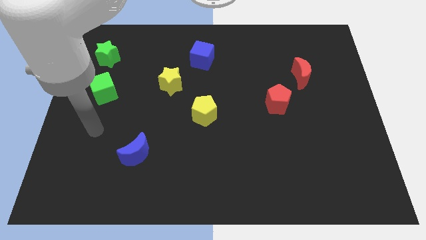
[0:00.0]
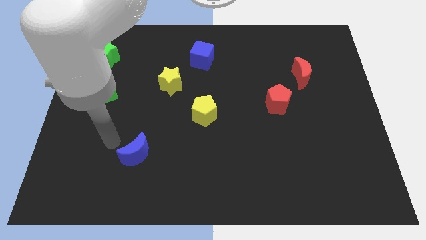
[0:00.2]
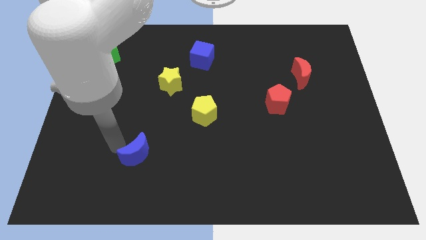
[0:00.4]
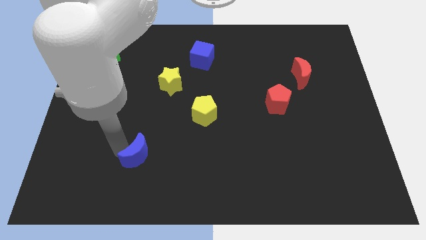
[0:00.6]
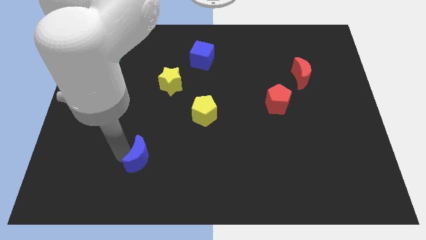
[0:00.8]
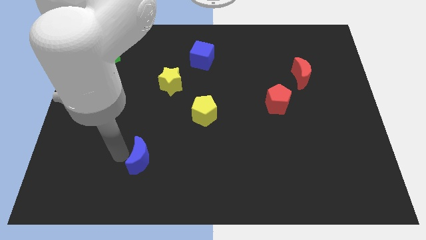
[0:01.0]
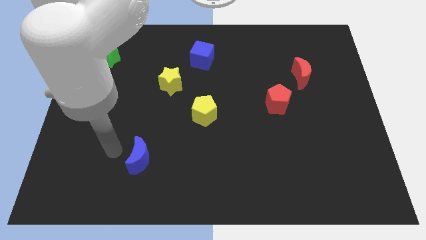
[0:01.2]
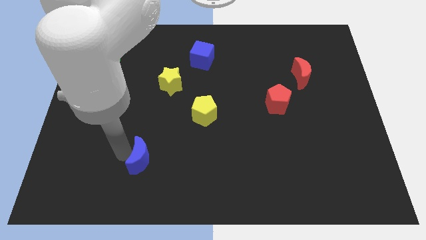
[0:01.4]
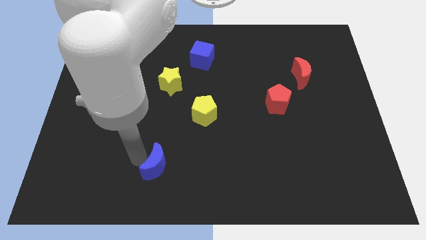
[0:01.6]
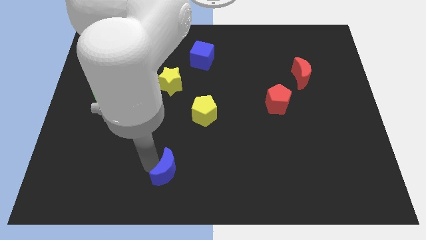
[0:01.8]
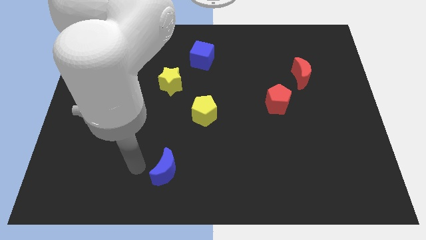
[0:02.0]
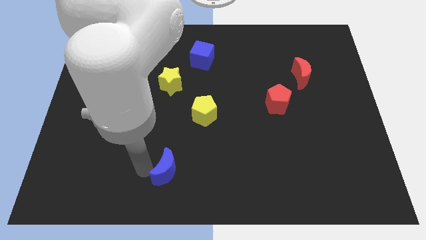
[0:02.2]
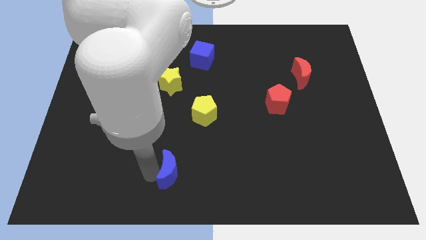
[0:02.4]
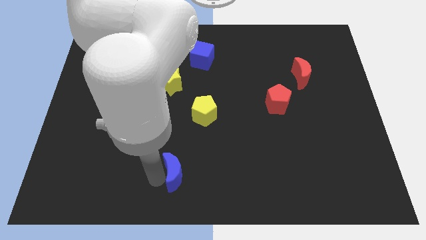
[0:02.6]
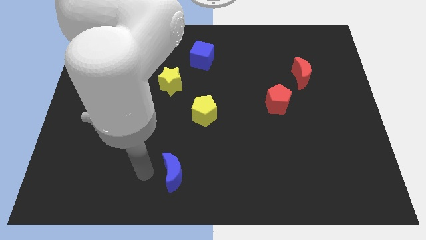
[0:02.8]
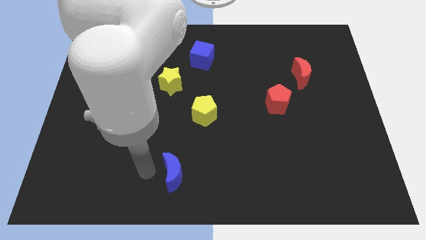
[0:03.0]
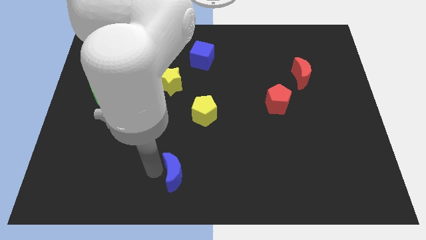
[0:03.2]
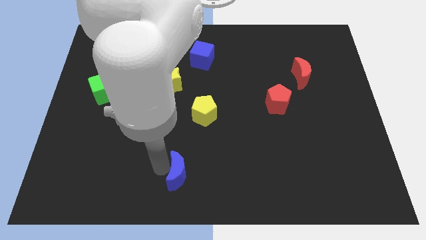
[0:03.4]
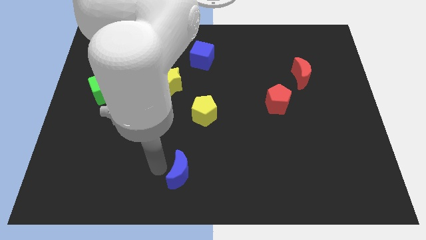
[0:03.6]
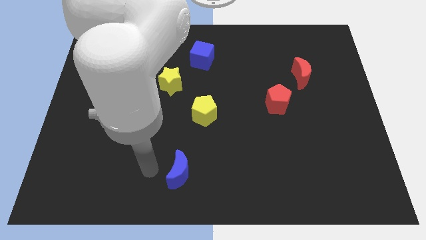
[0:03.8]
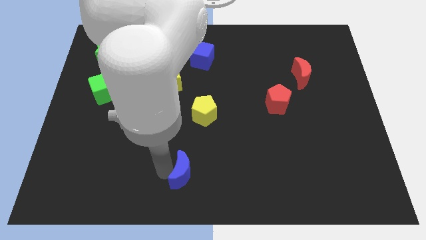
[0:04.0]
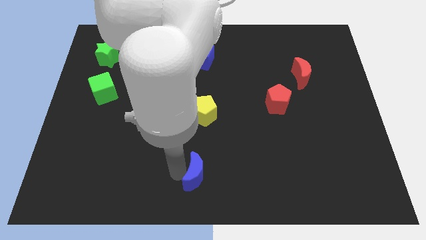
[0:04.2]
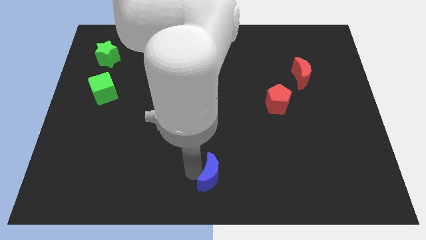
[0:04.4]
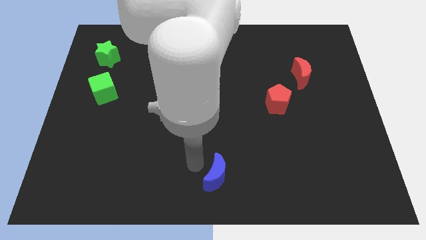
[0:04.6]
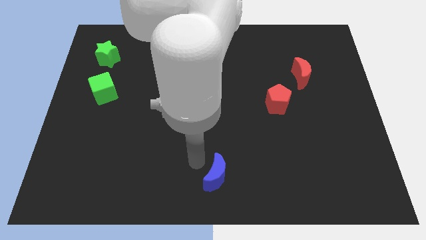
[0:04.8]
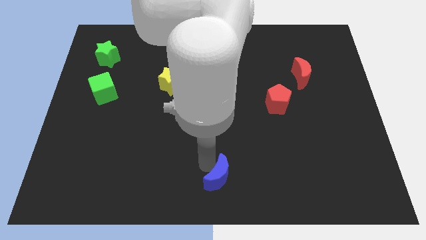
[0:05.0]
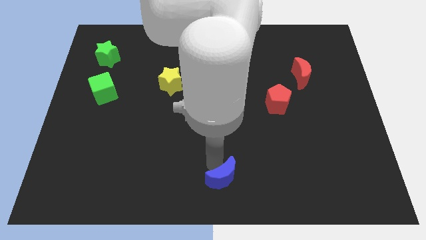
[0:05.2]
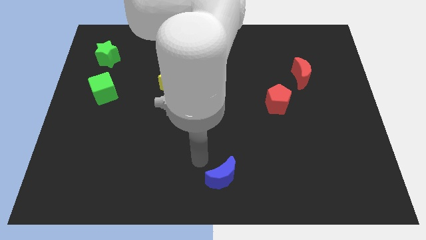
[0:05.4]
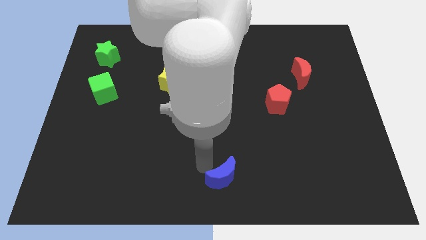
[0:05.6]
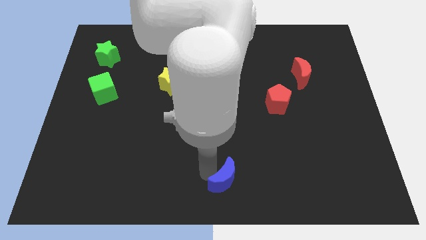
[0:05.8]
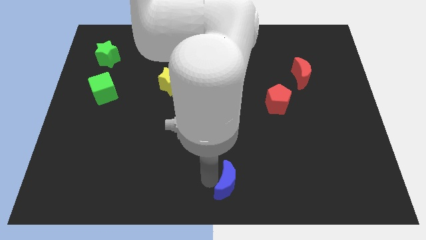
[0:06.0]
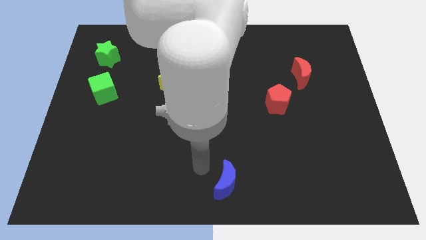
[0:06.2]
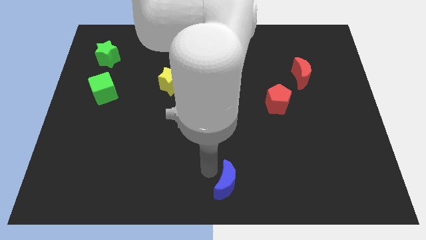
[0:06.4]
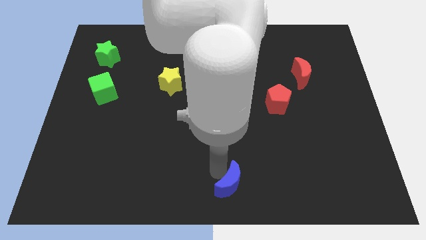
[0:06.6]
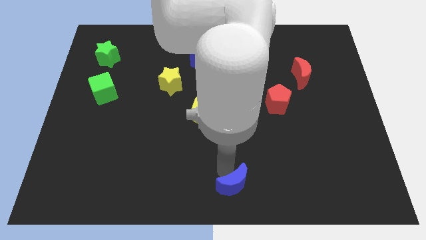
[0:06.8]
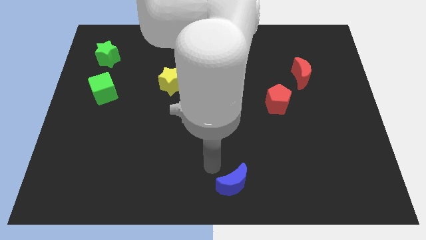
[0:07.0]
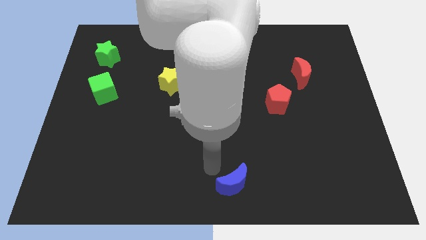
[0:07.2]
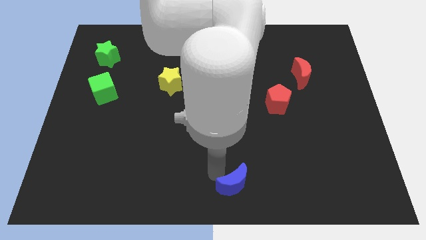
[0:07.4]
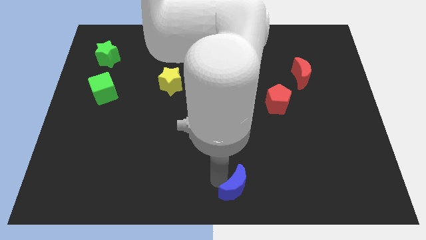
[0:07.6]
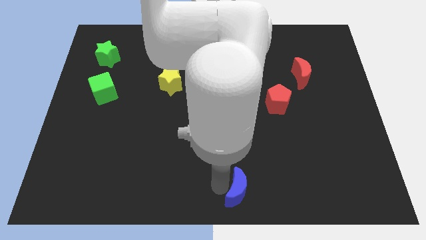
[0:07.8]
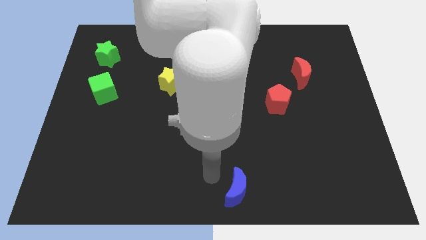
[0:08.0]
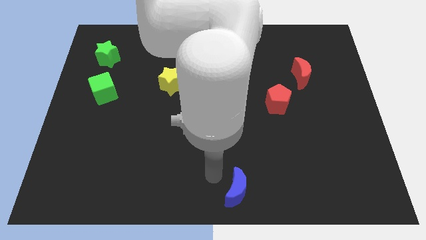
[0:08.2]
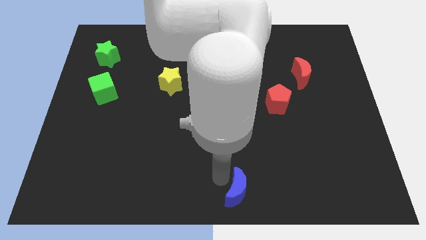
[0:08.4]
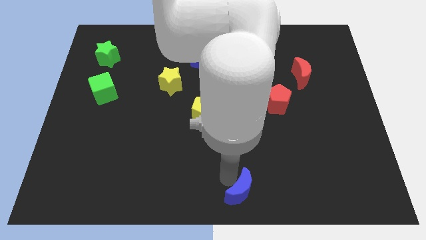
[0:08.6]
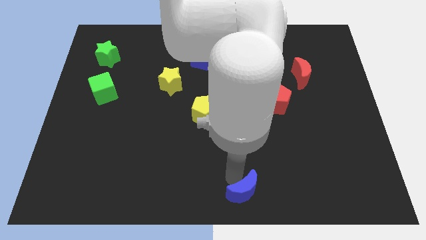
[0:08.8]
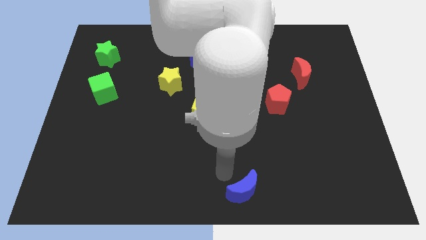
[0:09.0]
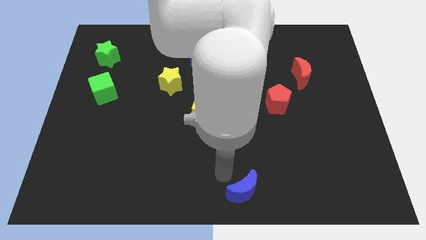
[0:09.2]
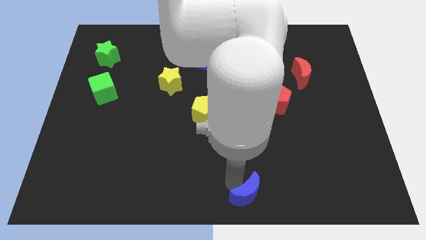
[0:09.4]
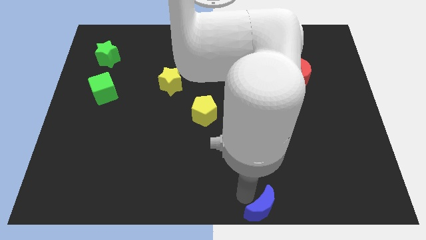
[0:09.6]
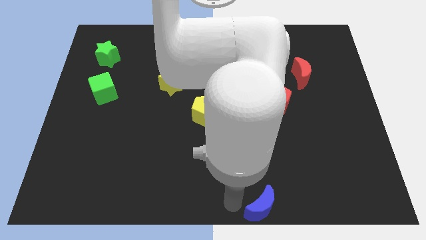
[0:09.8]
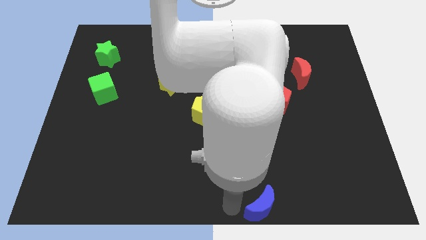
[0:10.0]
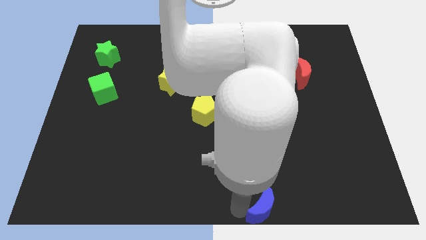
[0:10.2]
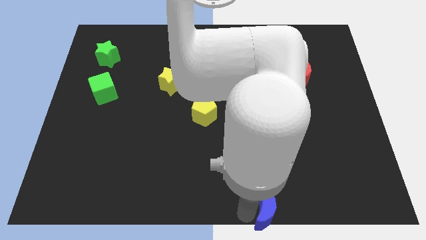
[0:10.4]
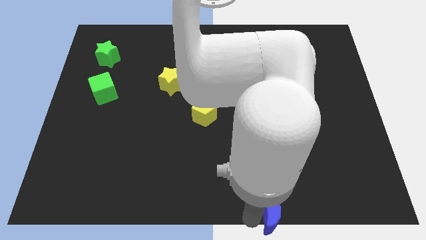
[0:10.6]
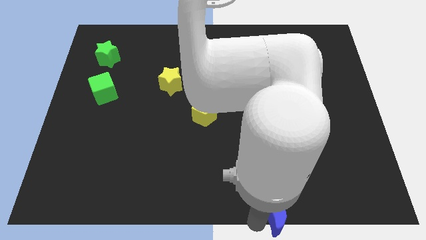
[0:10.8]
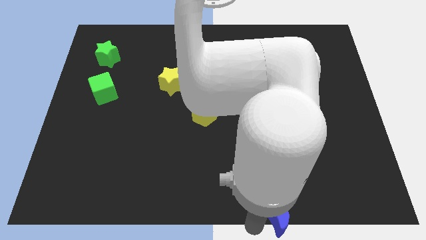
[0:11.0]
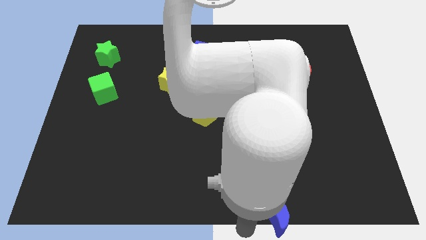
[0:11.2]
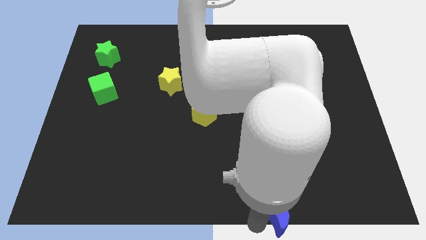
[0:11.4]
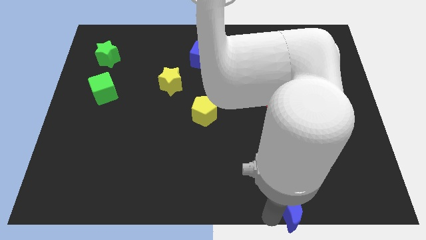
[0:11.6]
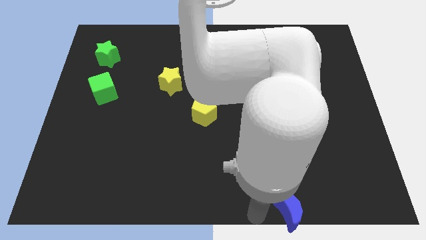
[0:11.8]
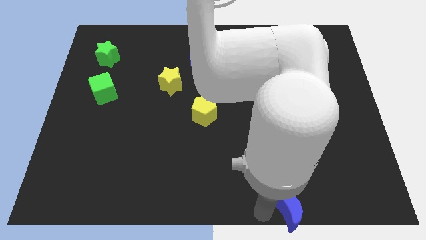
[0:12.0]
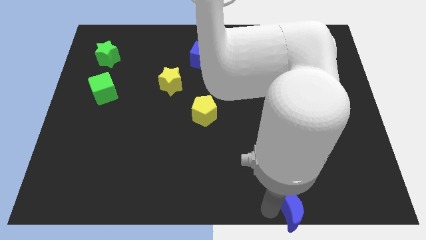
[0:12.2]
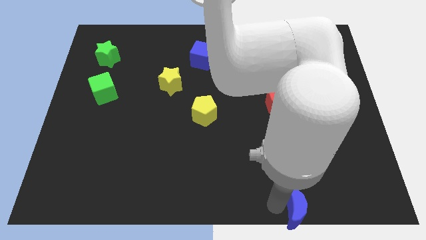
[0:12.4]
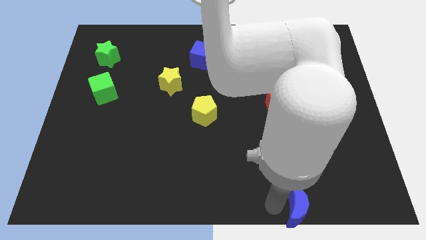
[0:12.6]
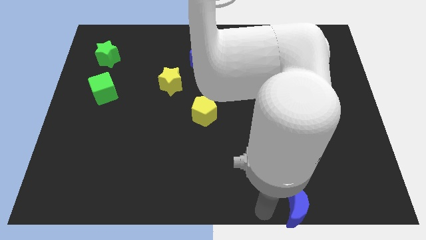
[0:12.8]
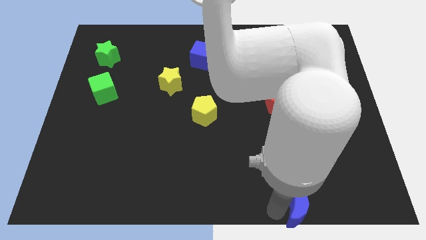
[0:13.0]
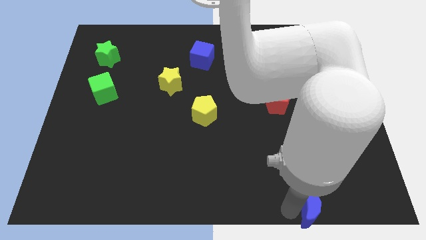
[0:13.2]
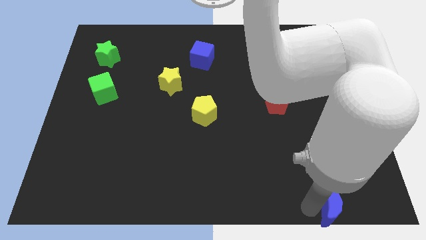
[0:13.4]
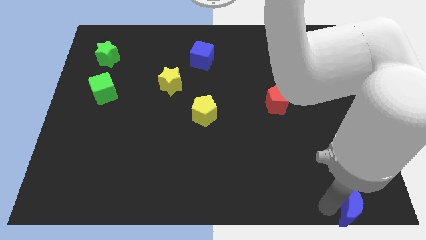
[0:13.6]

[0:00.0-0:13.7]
move the blue moon to the bottom right

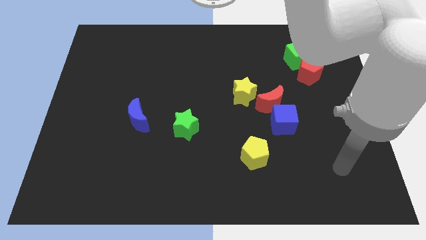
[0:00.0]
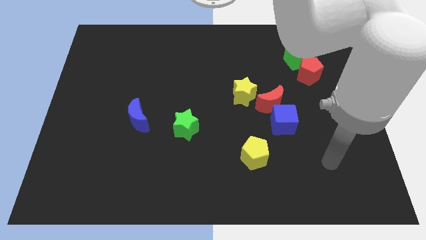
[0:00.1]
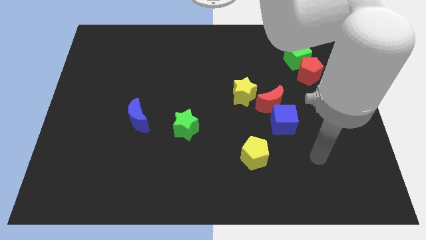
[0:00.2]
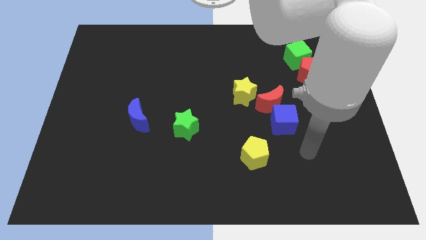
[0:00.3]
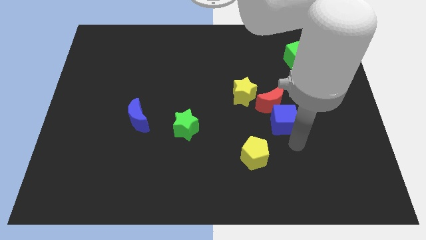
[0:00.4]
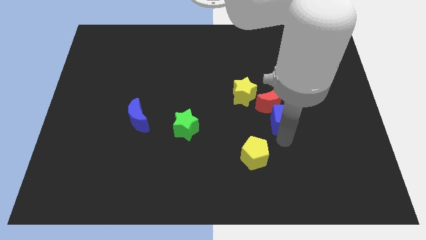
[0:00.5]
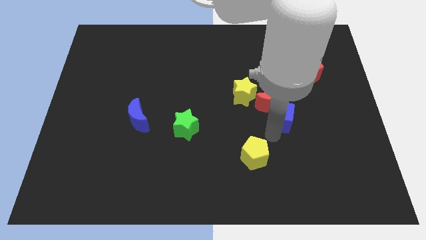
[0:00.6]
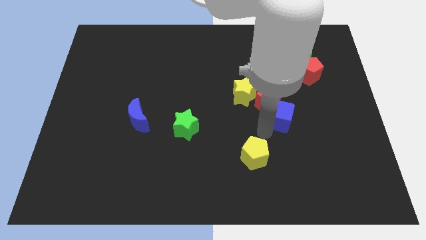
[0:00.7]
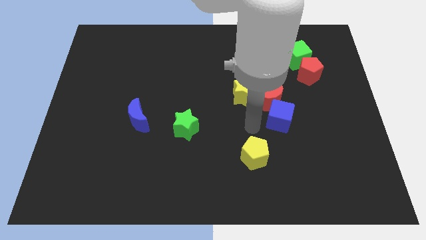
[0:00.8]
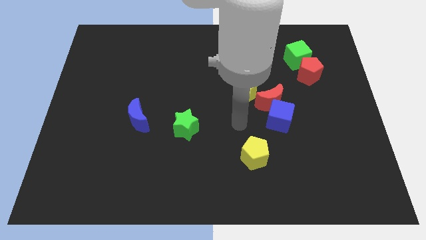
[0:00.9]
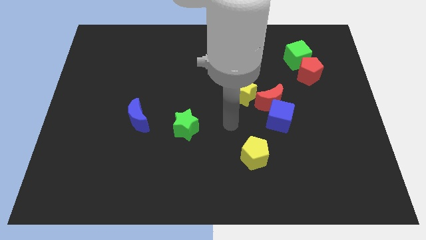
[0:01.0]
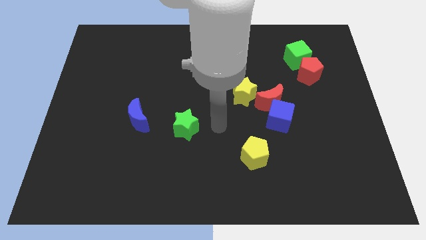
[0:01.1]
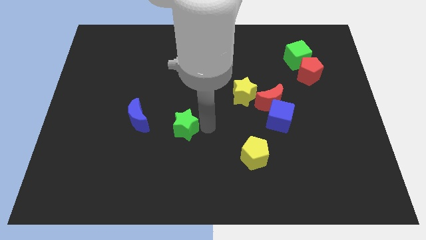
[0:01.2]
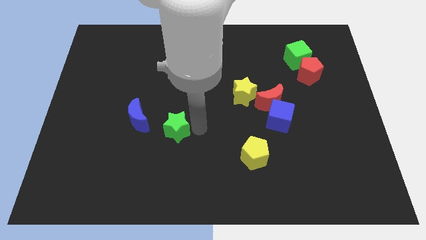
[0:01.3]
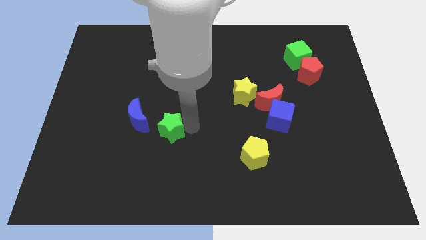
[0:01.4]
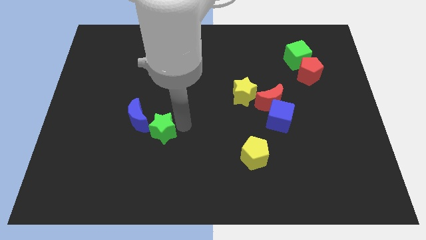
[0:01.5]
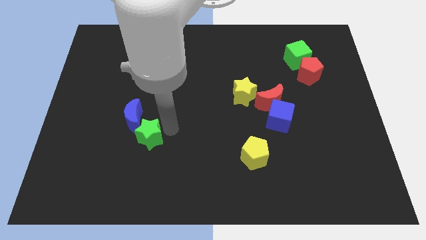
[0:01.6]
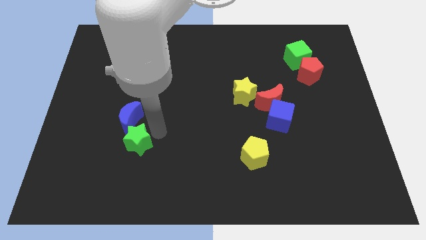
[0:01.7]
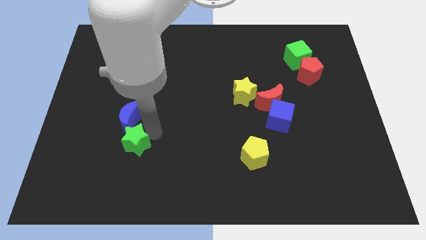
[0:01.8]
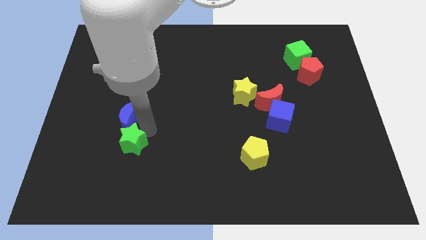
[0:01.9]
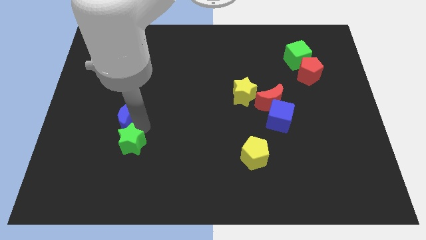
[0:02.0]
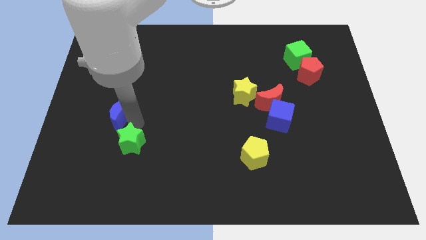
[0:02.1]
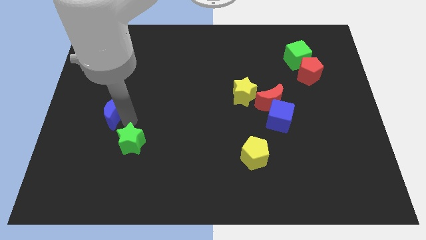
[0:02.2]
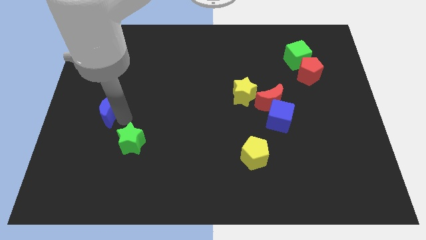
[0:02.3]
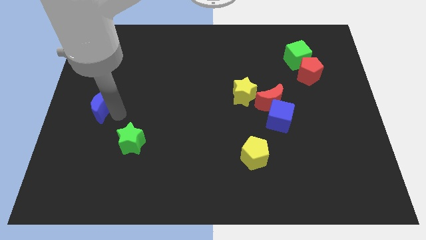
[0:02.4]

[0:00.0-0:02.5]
push the blue moon to the left side of the board
